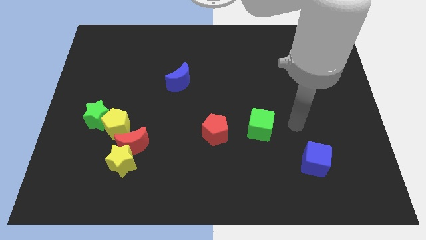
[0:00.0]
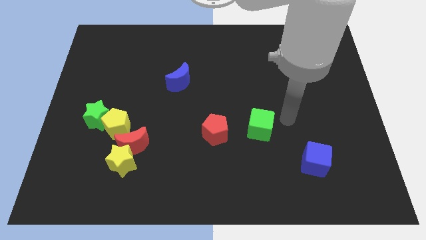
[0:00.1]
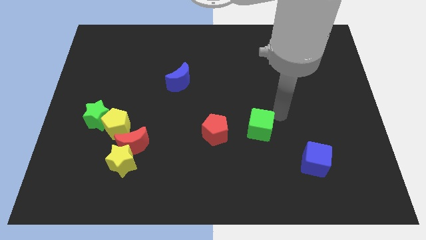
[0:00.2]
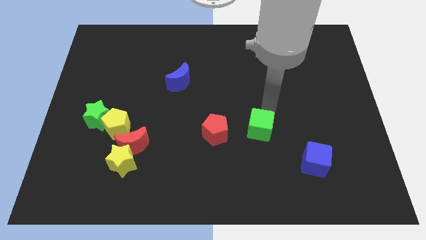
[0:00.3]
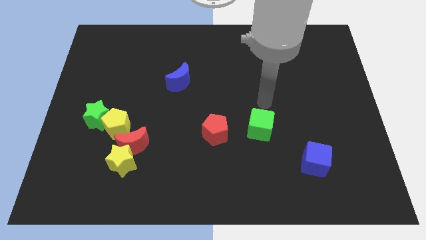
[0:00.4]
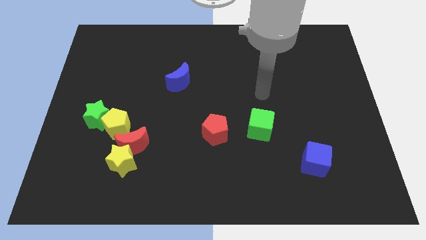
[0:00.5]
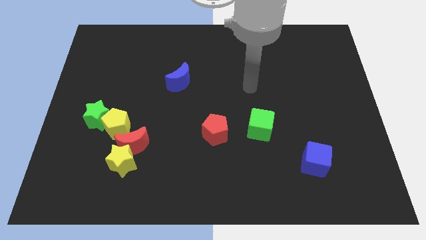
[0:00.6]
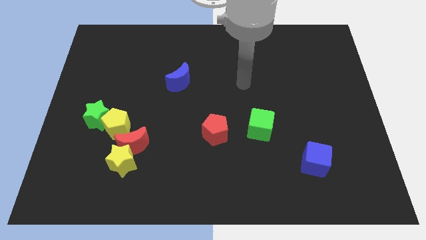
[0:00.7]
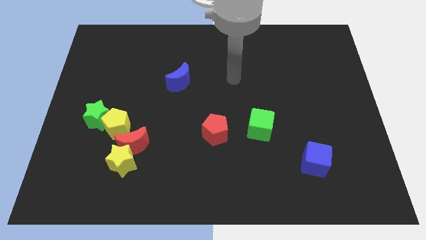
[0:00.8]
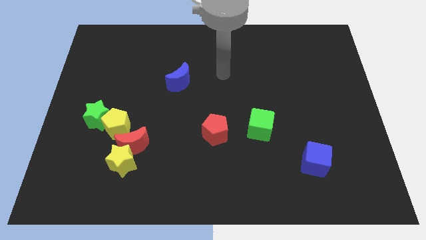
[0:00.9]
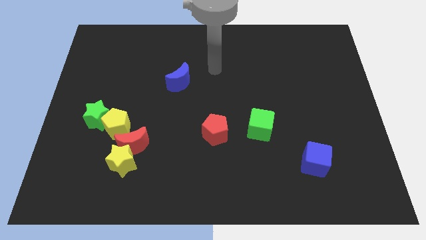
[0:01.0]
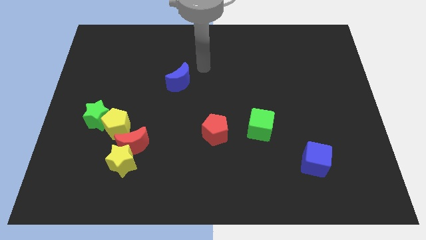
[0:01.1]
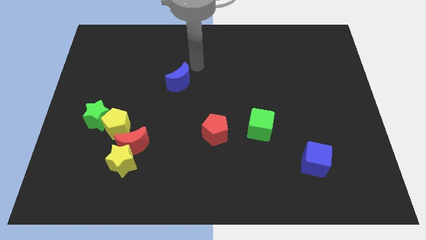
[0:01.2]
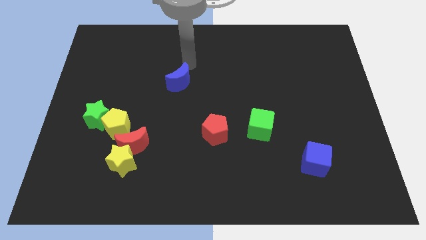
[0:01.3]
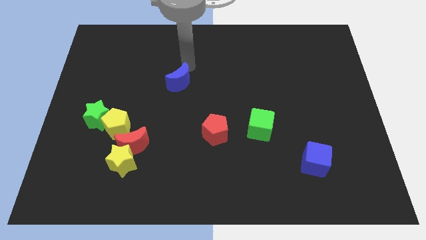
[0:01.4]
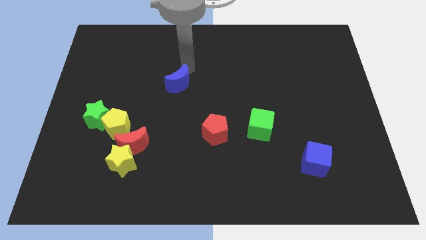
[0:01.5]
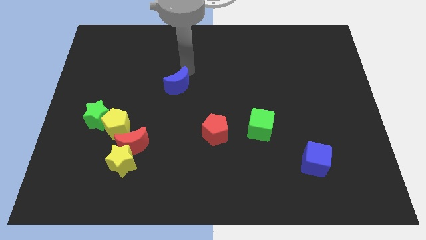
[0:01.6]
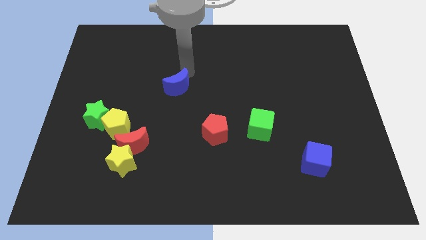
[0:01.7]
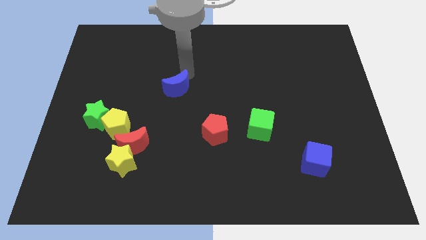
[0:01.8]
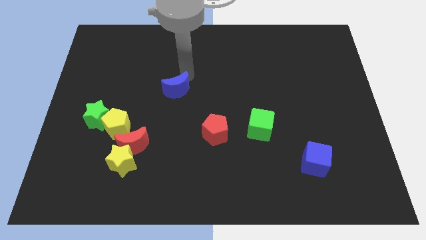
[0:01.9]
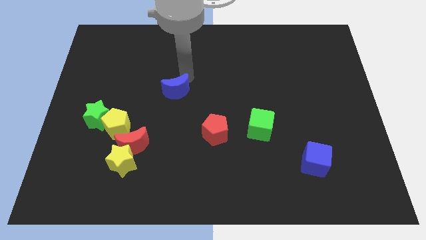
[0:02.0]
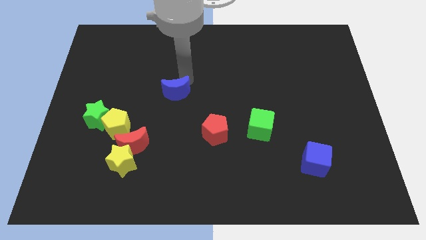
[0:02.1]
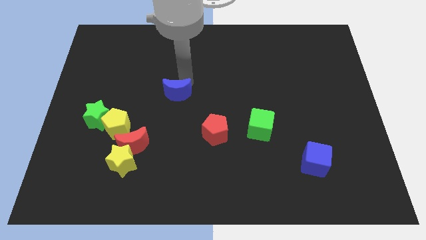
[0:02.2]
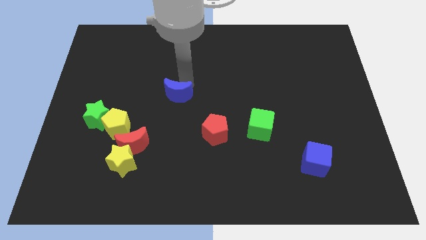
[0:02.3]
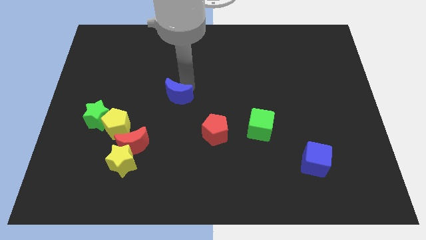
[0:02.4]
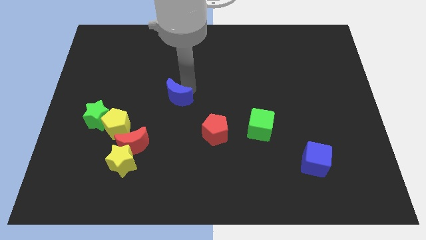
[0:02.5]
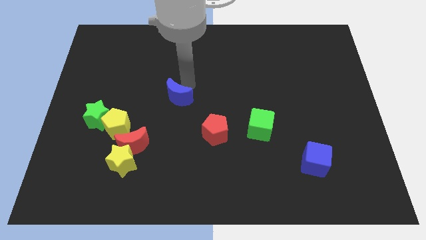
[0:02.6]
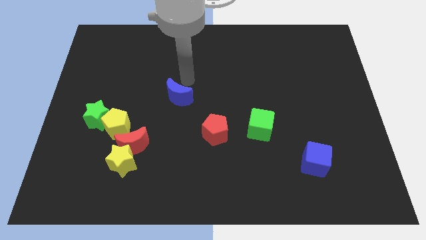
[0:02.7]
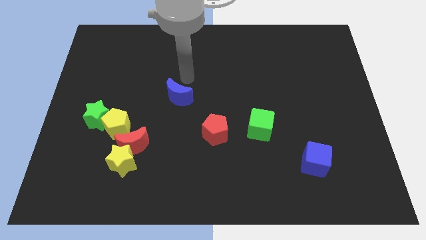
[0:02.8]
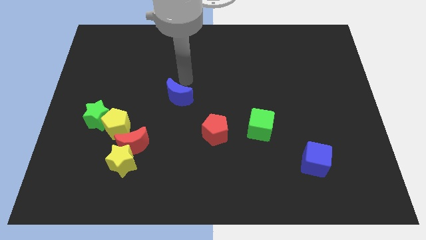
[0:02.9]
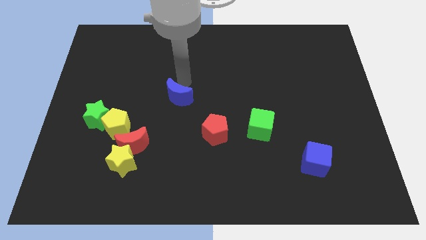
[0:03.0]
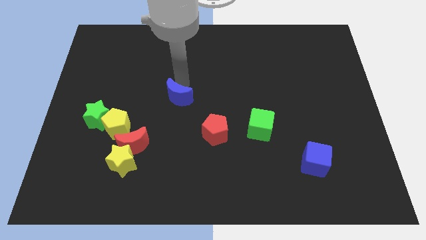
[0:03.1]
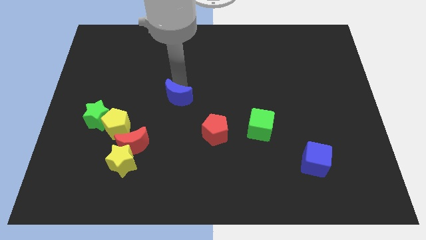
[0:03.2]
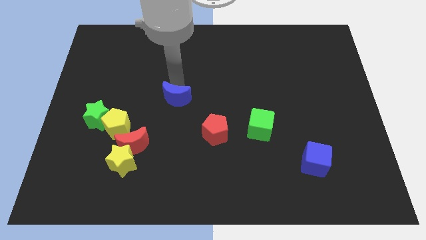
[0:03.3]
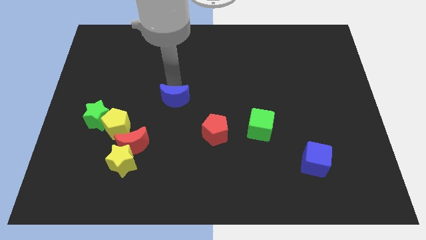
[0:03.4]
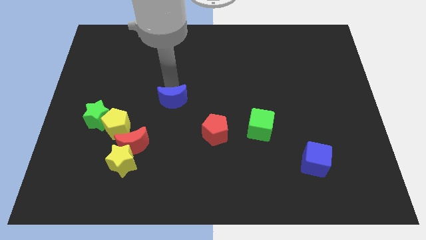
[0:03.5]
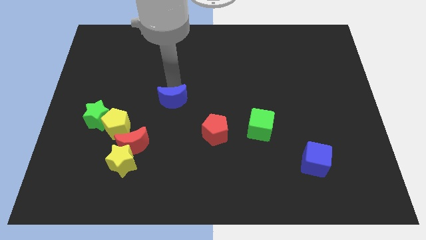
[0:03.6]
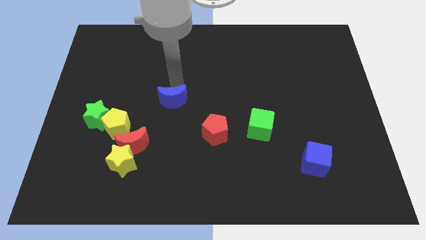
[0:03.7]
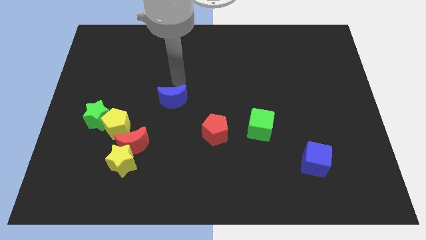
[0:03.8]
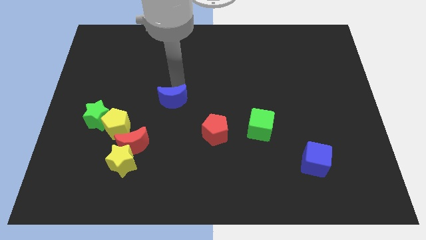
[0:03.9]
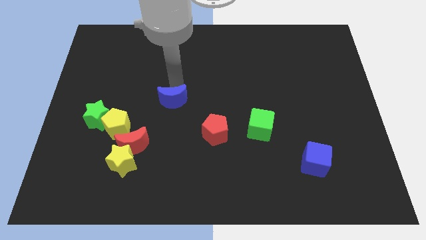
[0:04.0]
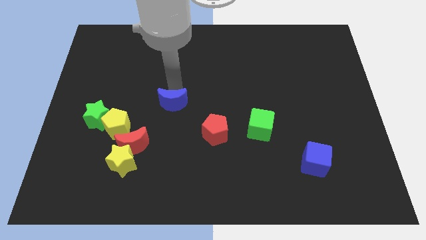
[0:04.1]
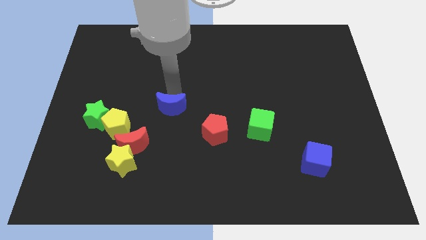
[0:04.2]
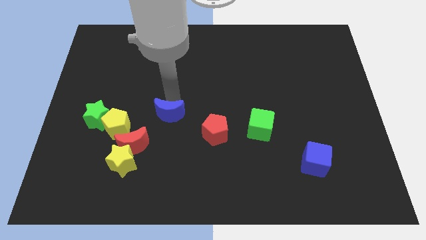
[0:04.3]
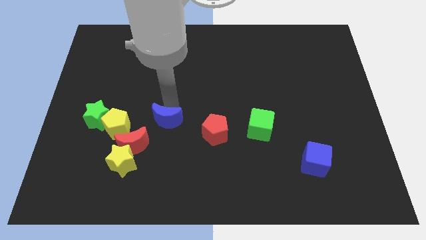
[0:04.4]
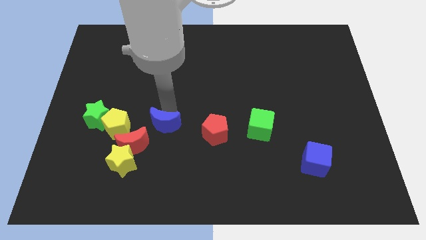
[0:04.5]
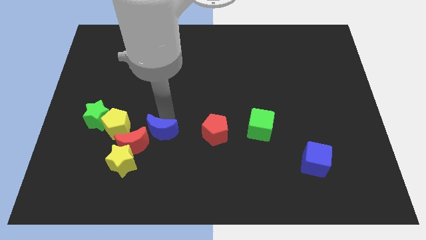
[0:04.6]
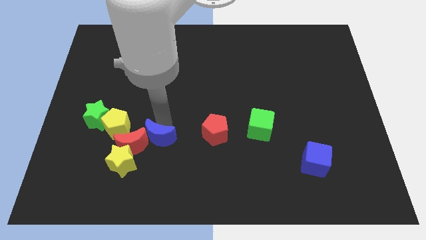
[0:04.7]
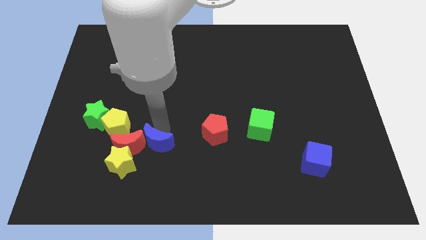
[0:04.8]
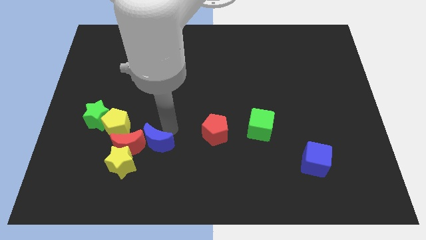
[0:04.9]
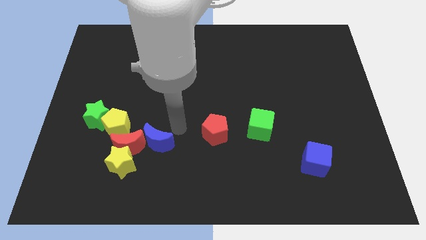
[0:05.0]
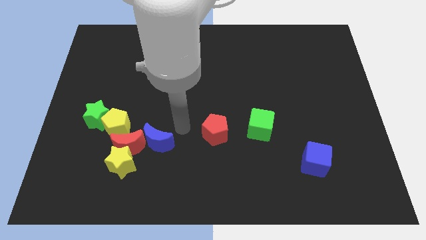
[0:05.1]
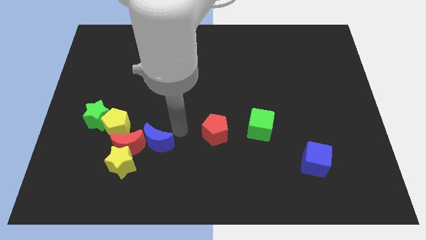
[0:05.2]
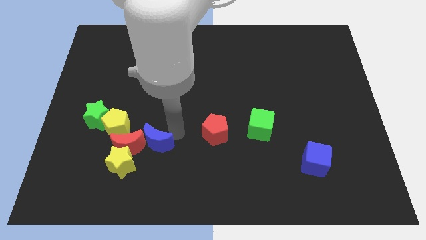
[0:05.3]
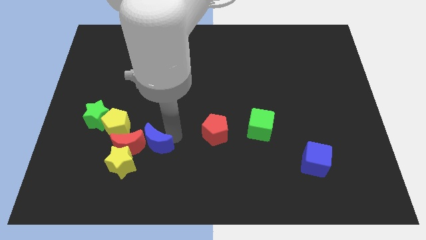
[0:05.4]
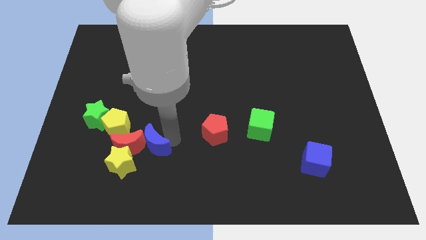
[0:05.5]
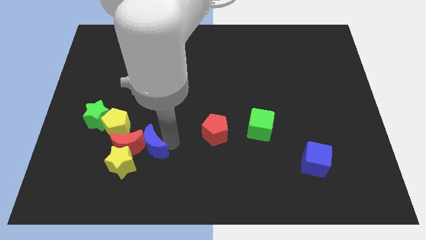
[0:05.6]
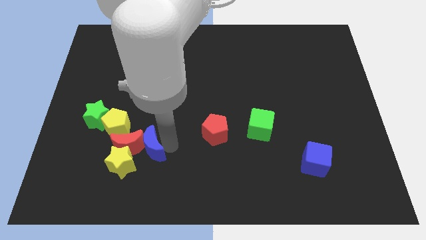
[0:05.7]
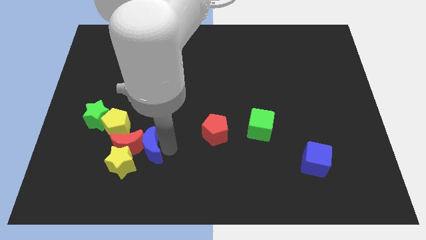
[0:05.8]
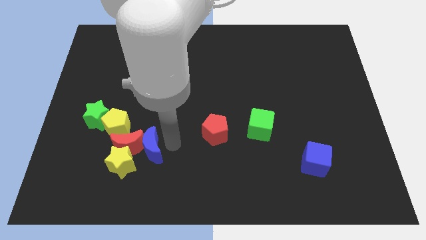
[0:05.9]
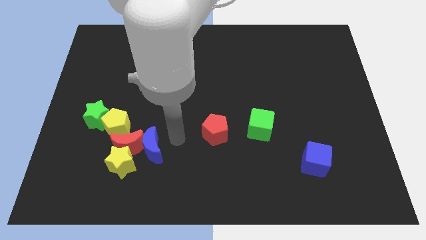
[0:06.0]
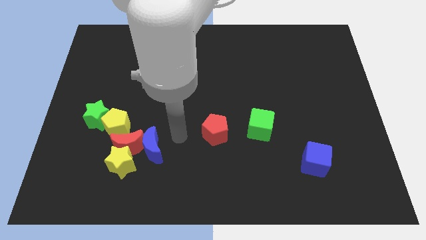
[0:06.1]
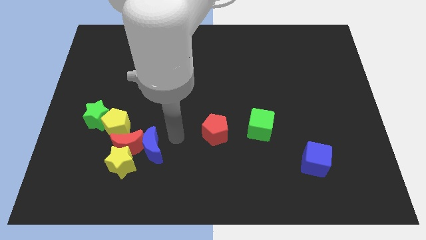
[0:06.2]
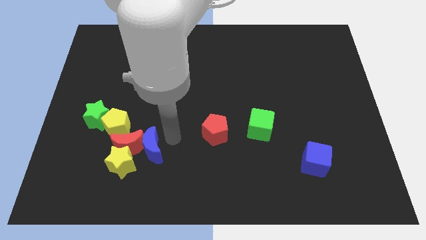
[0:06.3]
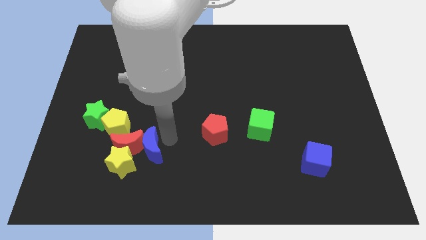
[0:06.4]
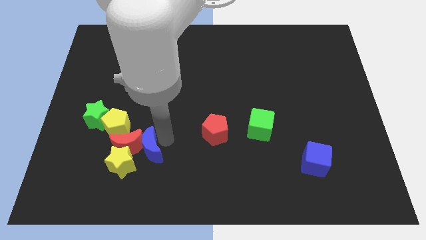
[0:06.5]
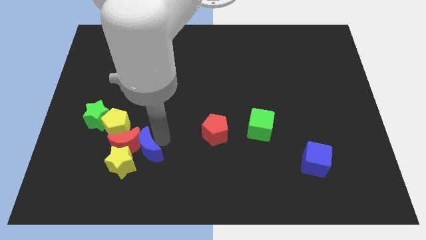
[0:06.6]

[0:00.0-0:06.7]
push the blue moon close to the yellow star

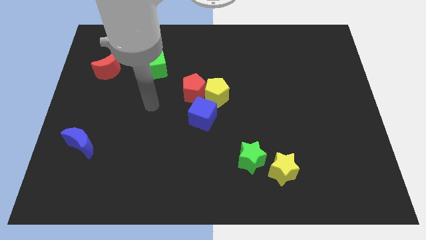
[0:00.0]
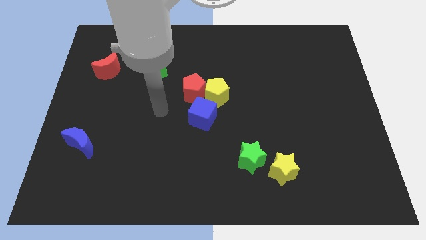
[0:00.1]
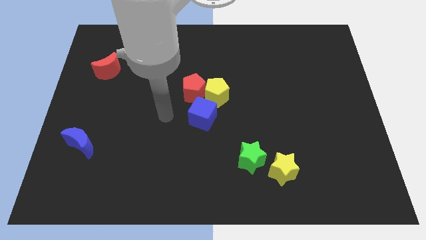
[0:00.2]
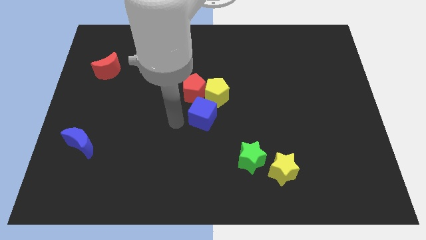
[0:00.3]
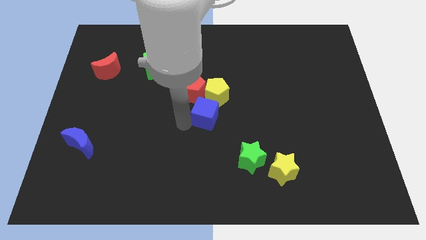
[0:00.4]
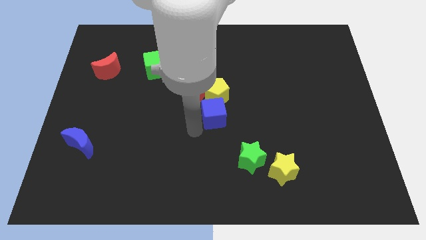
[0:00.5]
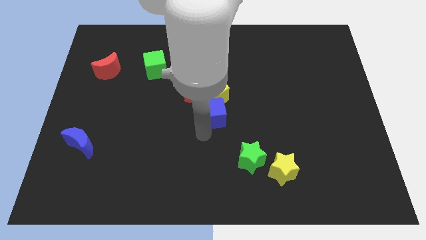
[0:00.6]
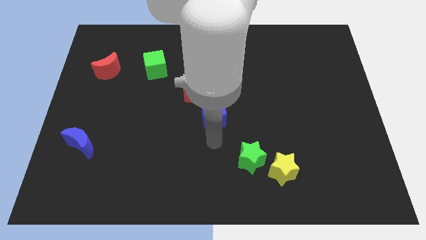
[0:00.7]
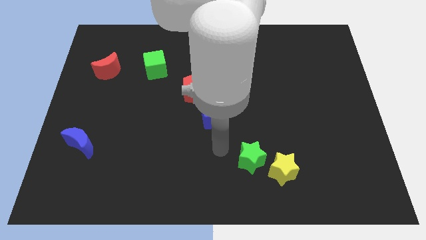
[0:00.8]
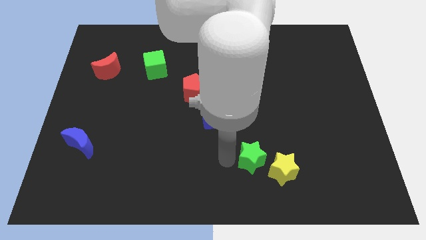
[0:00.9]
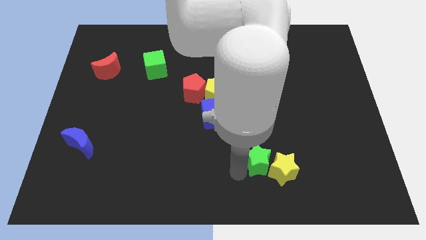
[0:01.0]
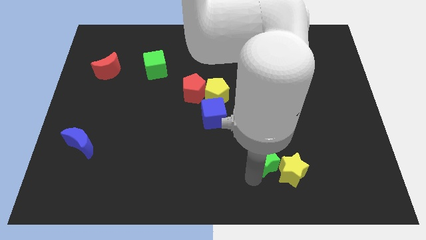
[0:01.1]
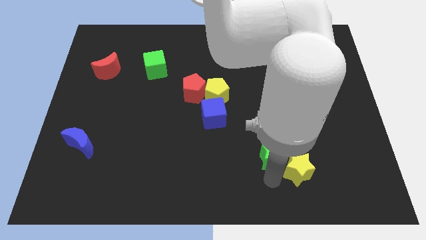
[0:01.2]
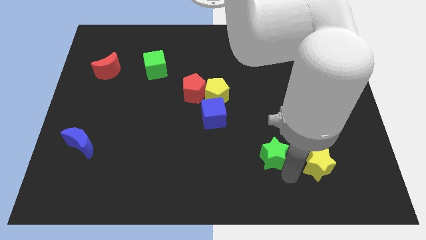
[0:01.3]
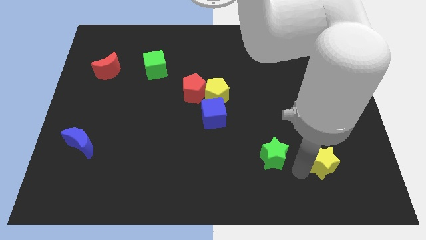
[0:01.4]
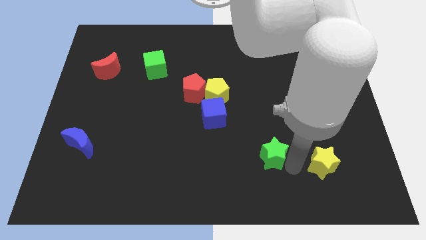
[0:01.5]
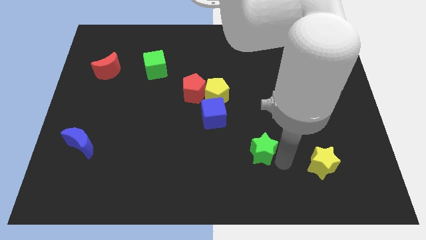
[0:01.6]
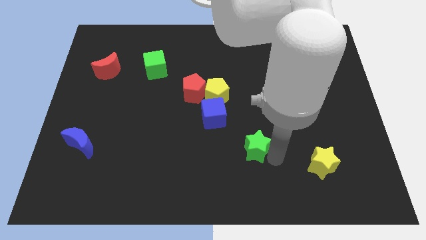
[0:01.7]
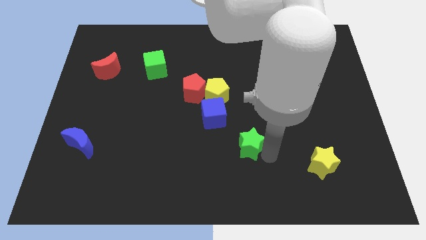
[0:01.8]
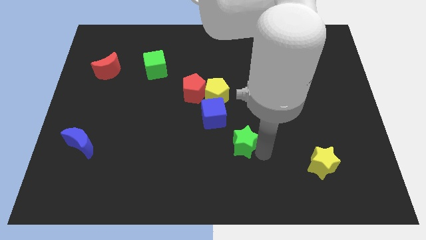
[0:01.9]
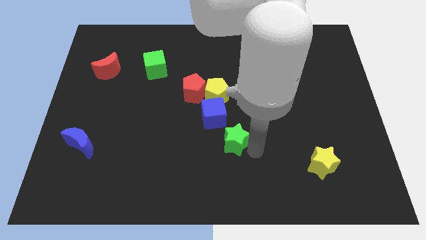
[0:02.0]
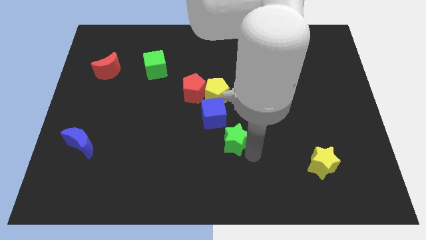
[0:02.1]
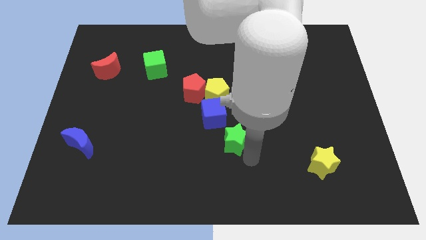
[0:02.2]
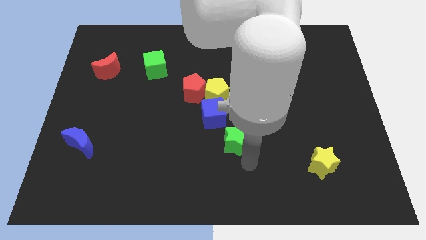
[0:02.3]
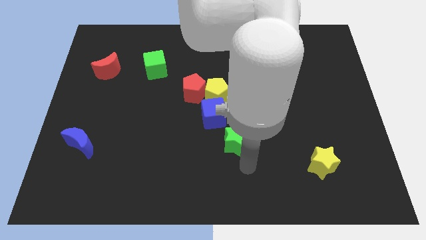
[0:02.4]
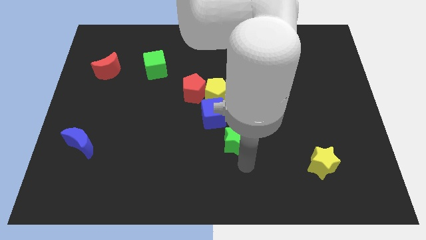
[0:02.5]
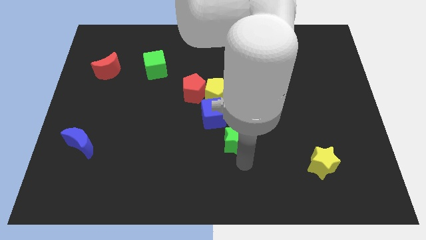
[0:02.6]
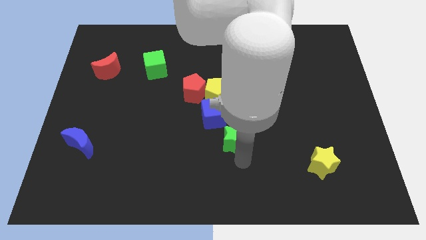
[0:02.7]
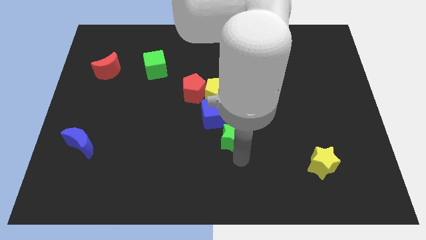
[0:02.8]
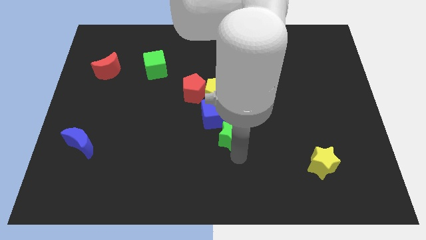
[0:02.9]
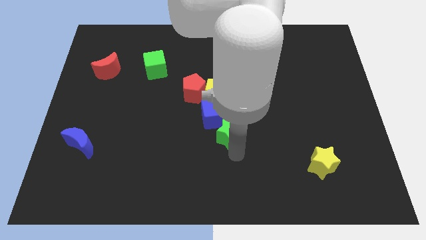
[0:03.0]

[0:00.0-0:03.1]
push the green star to the blue cube
